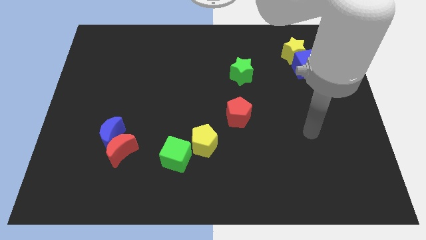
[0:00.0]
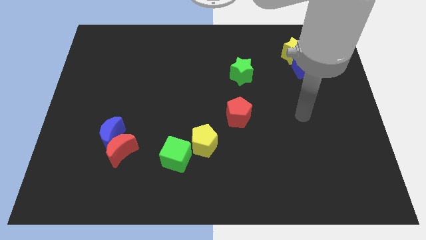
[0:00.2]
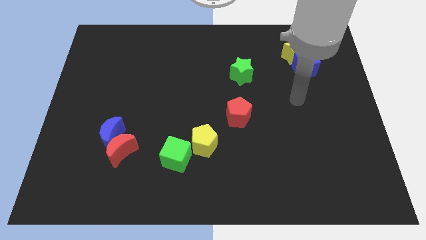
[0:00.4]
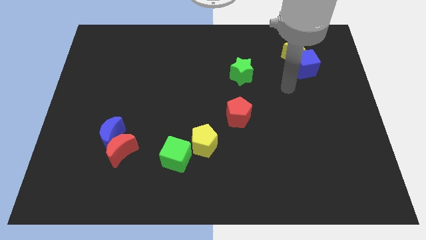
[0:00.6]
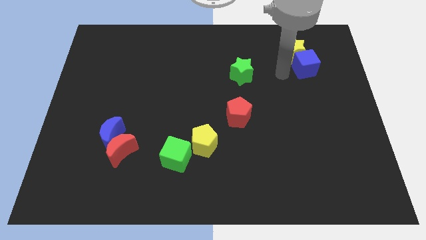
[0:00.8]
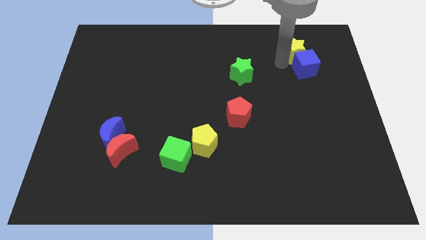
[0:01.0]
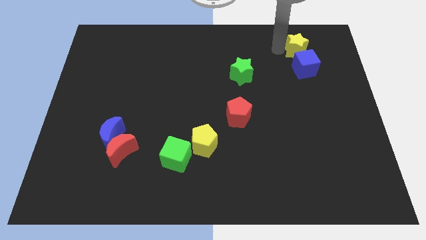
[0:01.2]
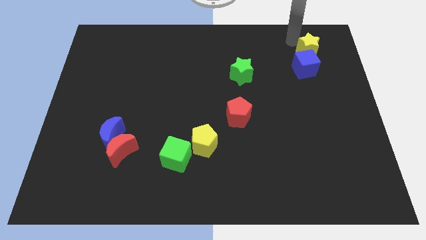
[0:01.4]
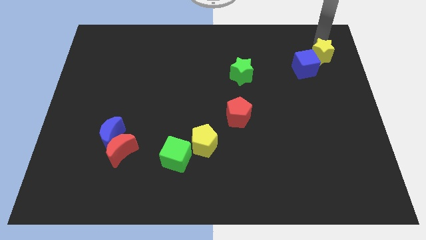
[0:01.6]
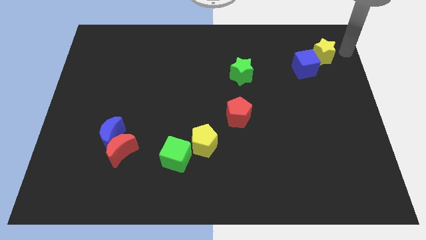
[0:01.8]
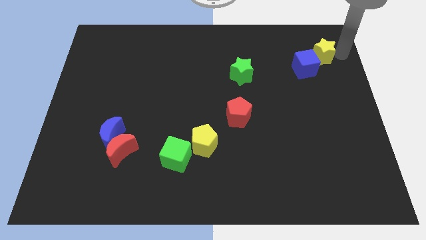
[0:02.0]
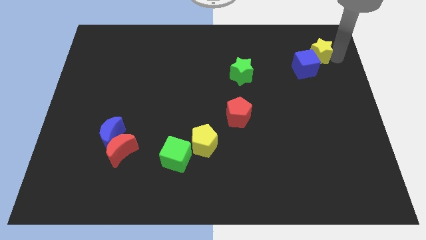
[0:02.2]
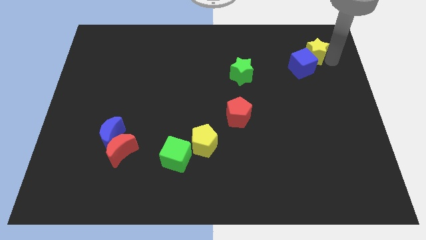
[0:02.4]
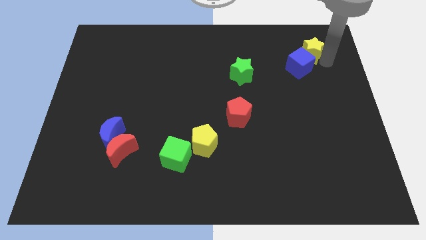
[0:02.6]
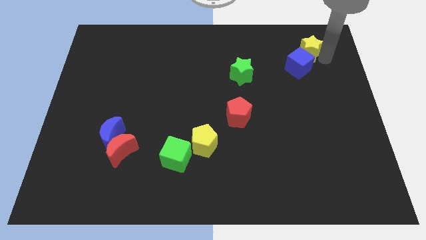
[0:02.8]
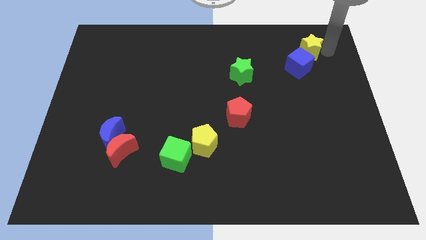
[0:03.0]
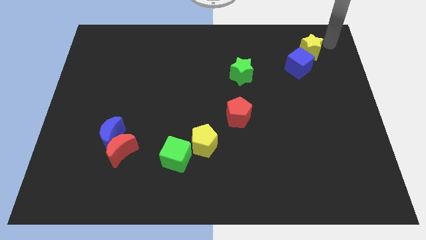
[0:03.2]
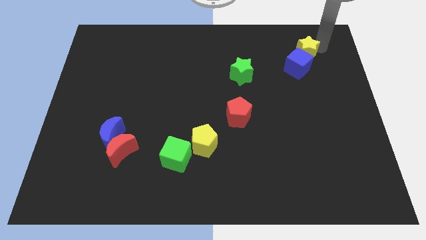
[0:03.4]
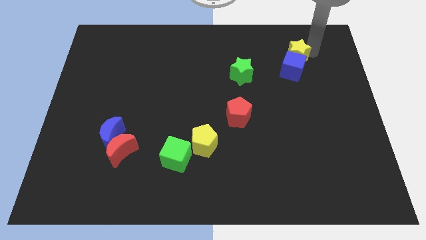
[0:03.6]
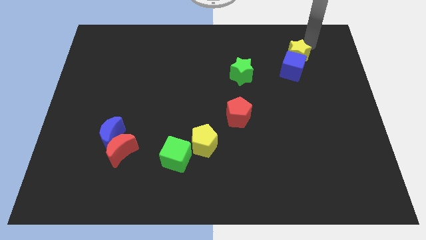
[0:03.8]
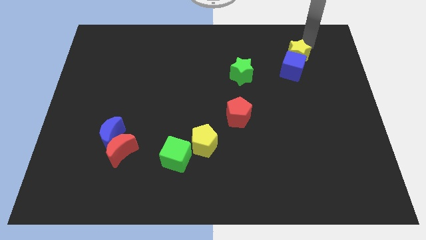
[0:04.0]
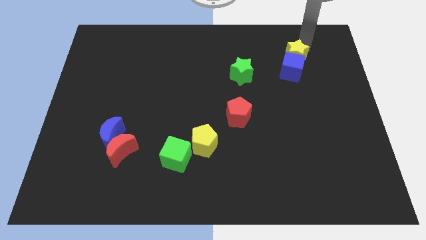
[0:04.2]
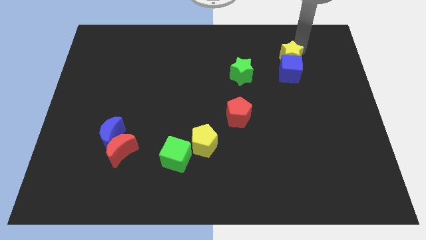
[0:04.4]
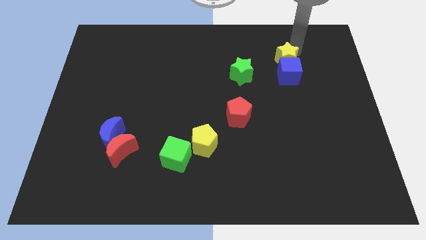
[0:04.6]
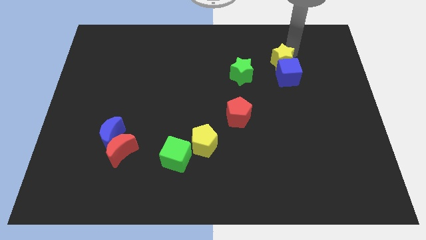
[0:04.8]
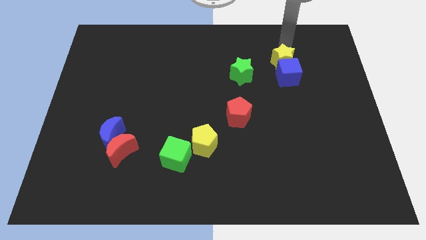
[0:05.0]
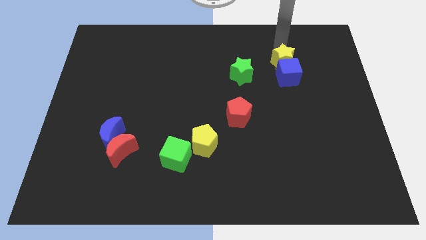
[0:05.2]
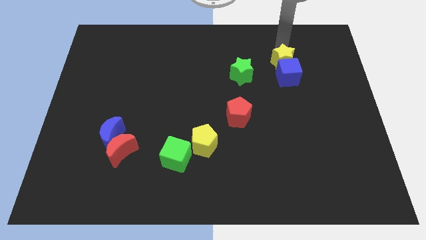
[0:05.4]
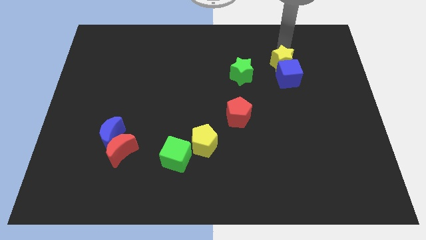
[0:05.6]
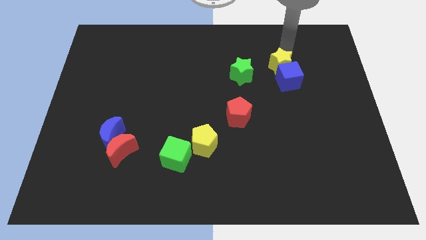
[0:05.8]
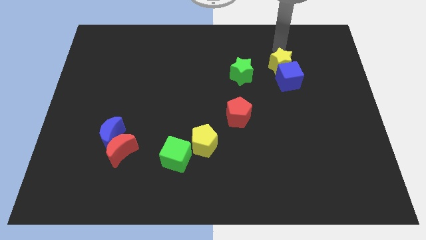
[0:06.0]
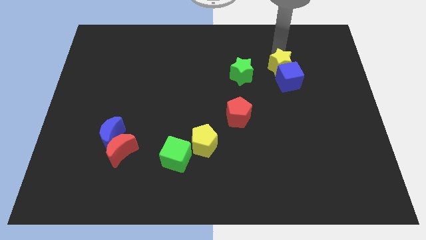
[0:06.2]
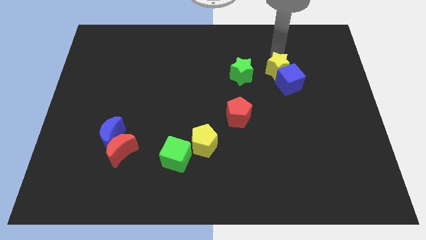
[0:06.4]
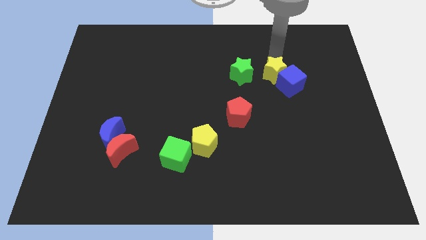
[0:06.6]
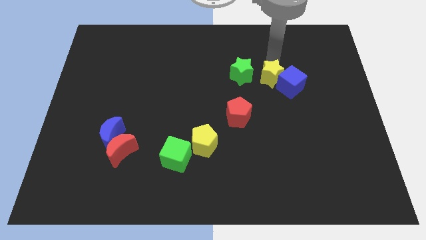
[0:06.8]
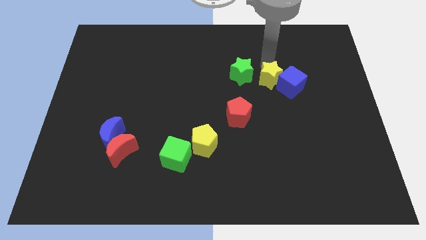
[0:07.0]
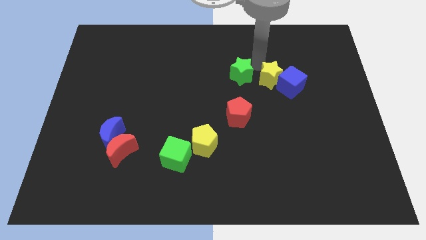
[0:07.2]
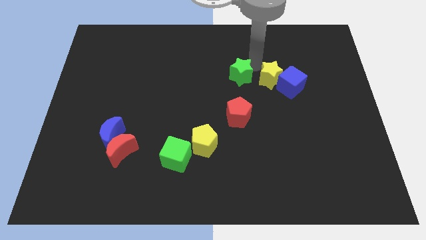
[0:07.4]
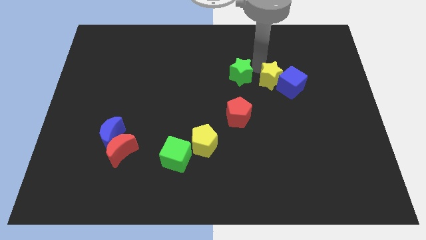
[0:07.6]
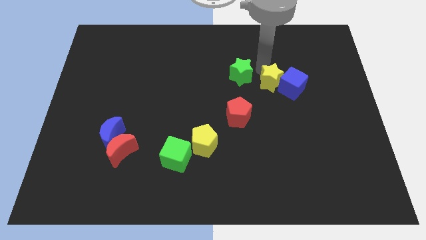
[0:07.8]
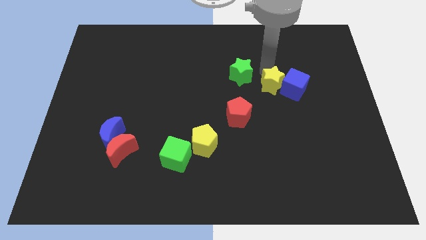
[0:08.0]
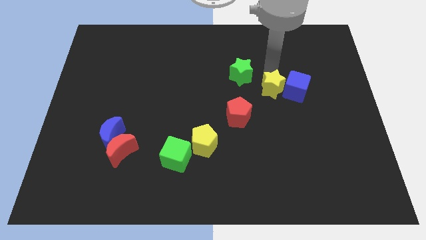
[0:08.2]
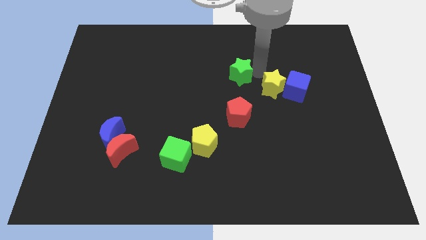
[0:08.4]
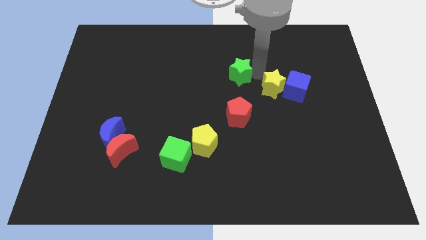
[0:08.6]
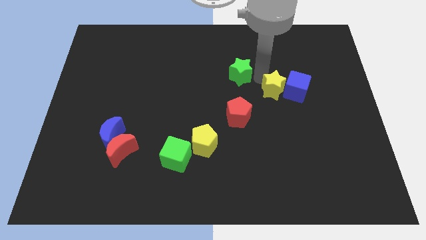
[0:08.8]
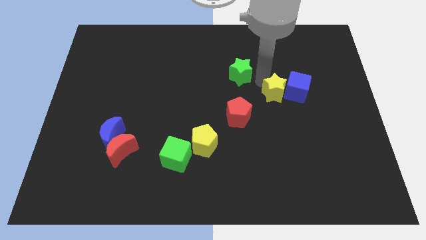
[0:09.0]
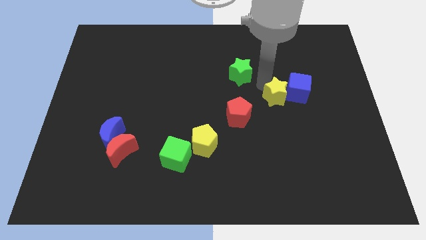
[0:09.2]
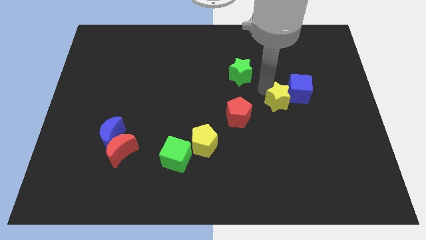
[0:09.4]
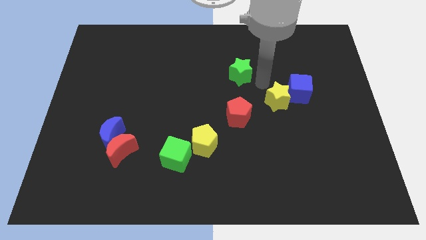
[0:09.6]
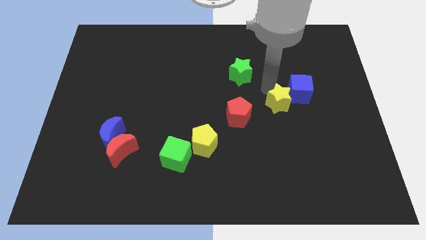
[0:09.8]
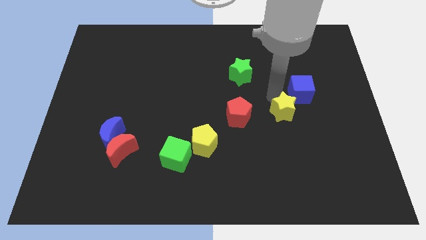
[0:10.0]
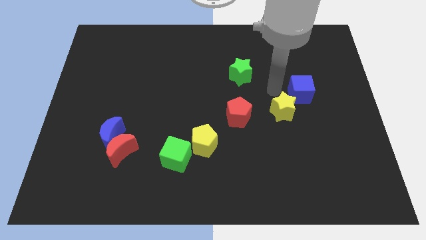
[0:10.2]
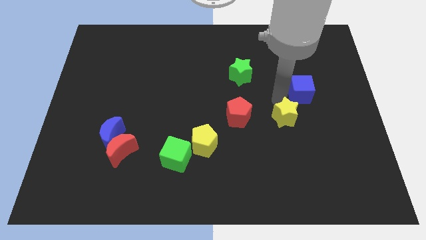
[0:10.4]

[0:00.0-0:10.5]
move the yellow star down

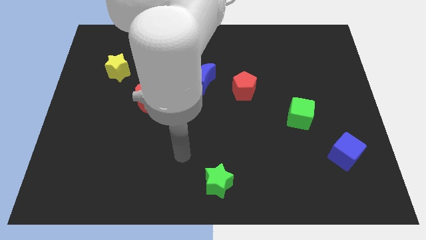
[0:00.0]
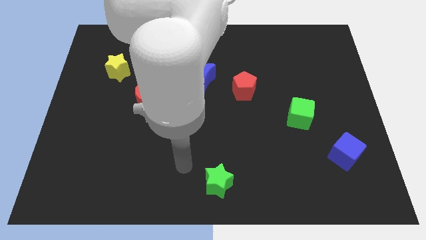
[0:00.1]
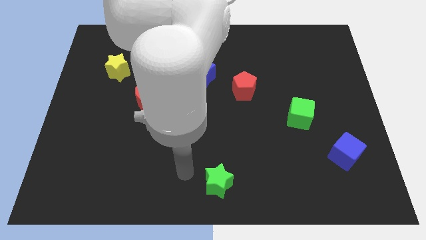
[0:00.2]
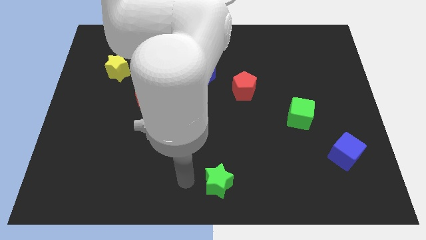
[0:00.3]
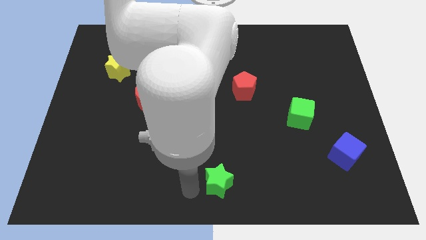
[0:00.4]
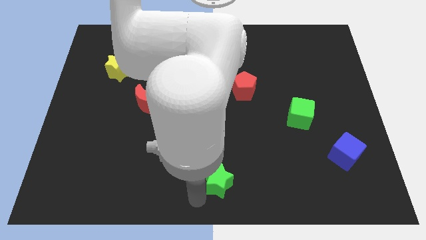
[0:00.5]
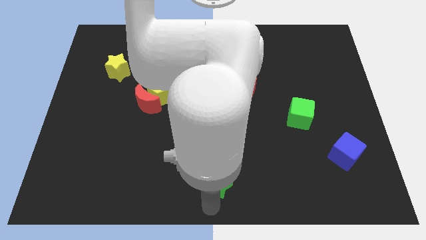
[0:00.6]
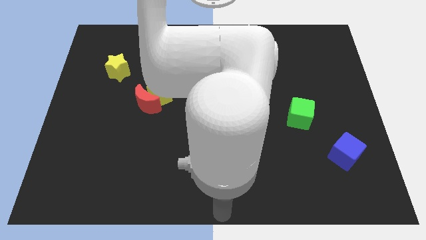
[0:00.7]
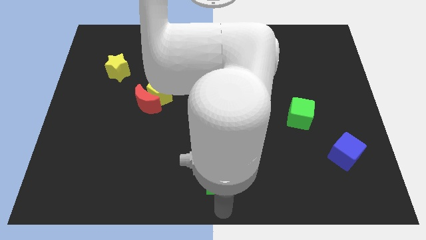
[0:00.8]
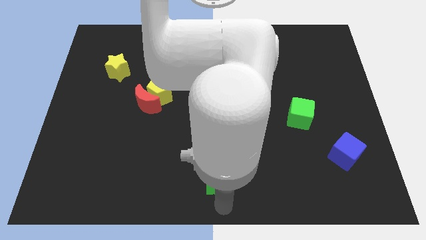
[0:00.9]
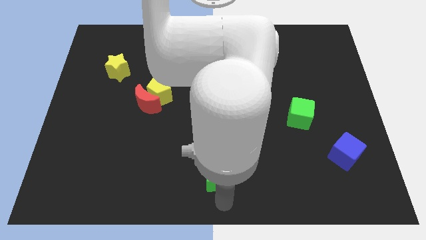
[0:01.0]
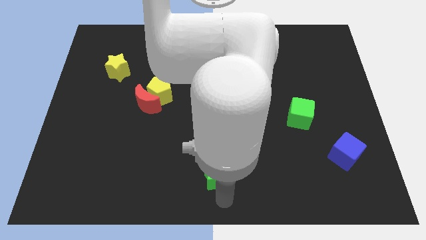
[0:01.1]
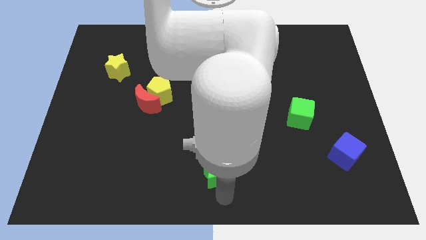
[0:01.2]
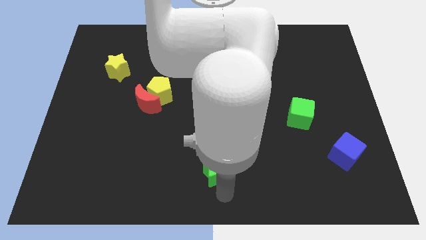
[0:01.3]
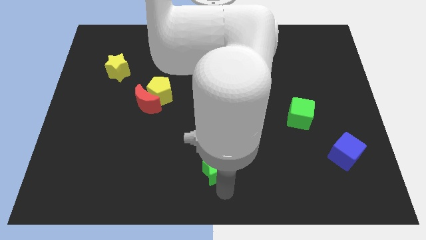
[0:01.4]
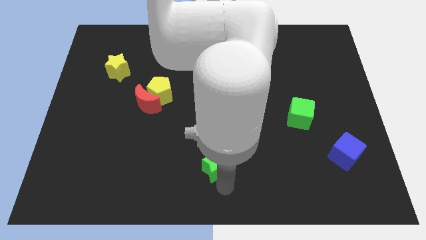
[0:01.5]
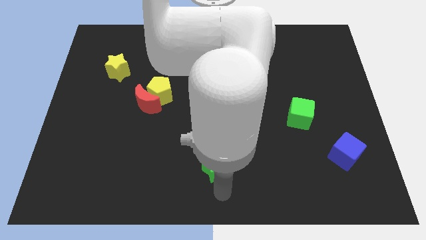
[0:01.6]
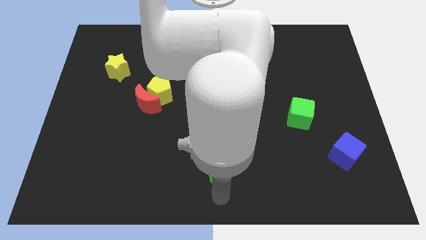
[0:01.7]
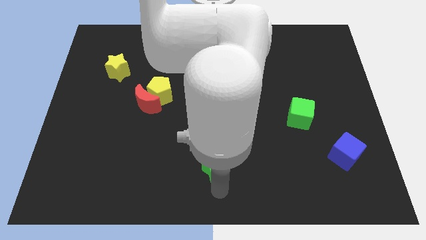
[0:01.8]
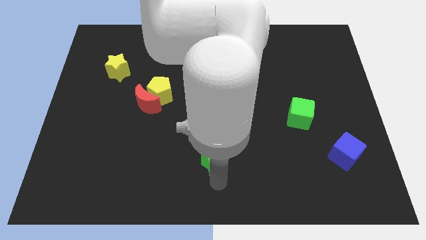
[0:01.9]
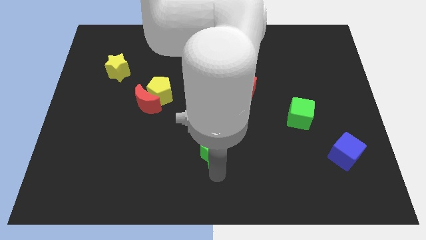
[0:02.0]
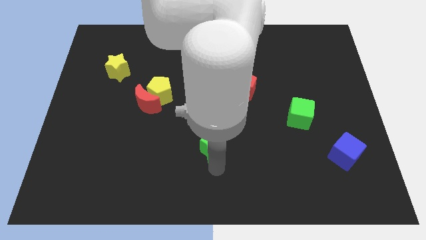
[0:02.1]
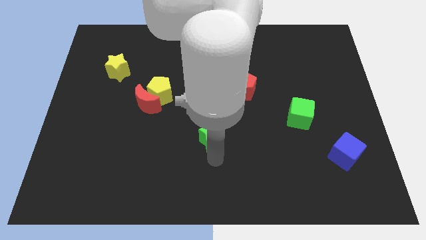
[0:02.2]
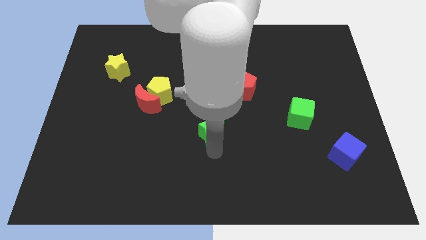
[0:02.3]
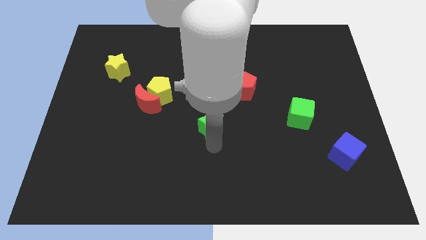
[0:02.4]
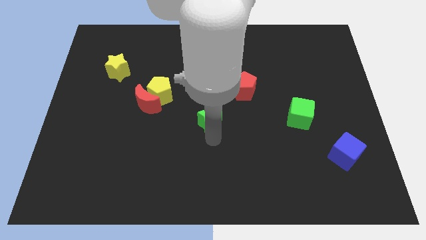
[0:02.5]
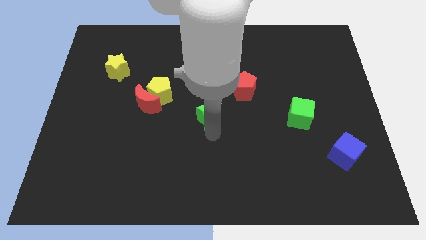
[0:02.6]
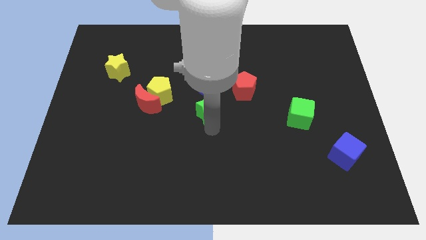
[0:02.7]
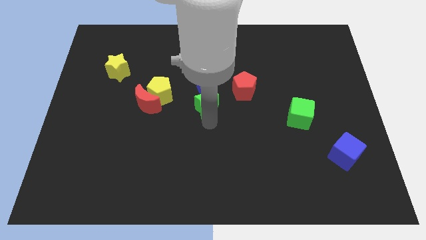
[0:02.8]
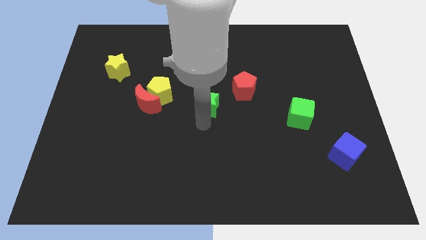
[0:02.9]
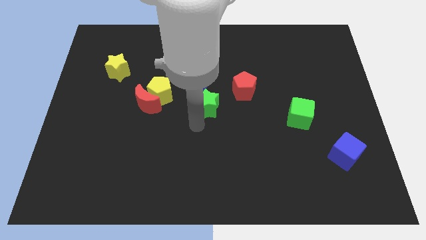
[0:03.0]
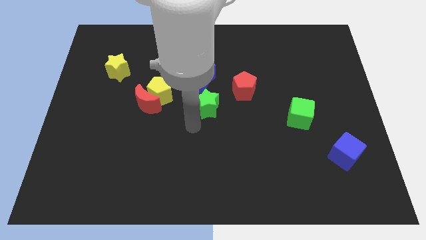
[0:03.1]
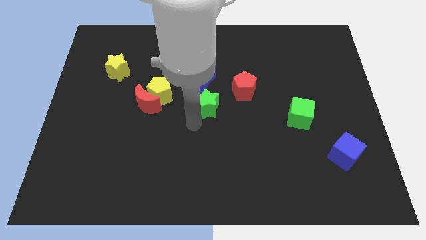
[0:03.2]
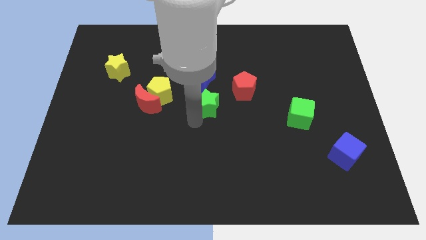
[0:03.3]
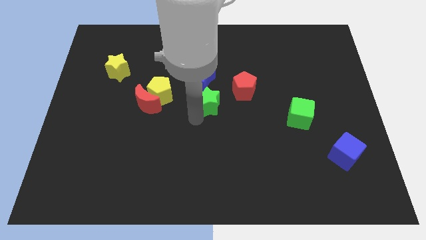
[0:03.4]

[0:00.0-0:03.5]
push the green star upwards
